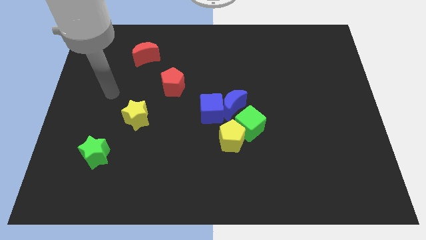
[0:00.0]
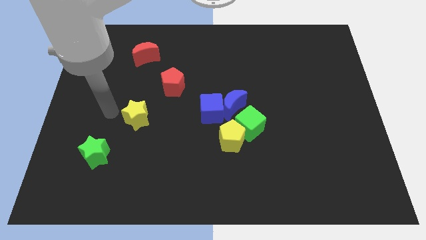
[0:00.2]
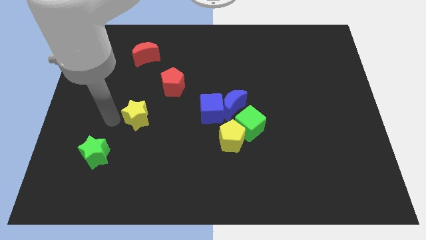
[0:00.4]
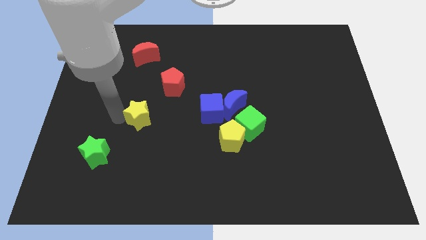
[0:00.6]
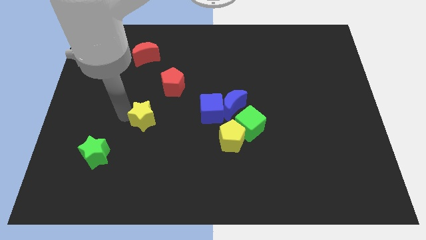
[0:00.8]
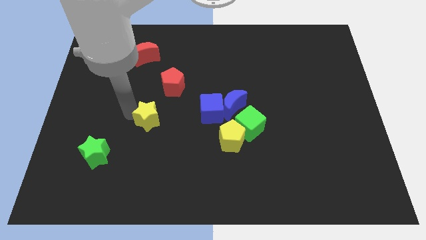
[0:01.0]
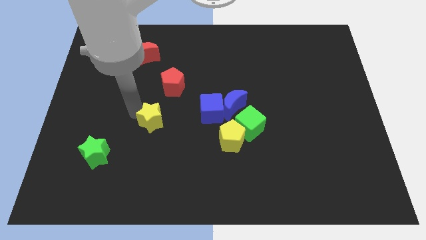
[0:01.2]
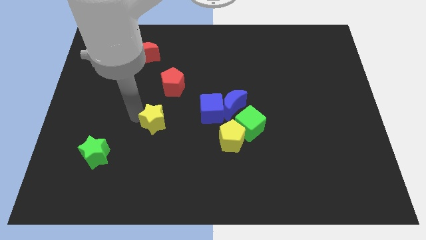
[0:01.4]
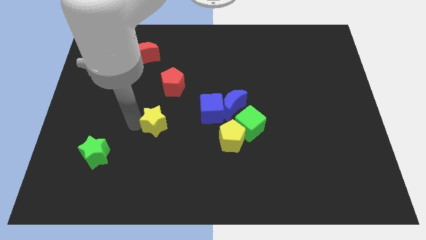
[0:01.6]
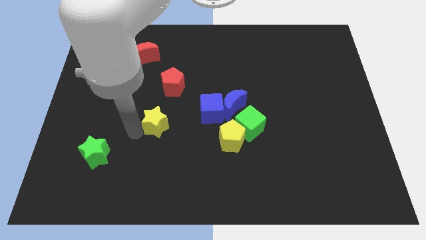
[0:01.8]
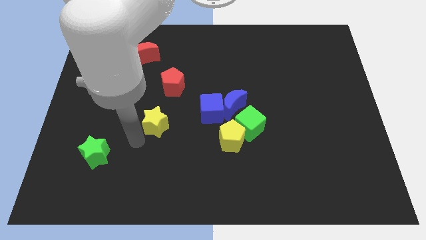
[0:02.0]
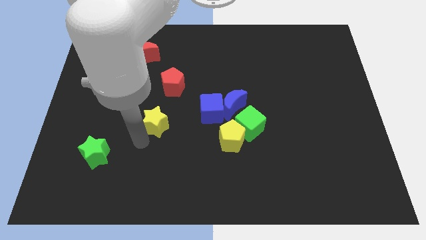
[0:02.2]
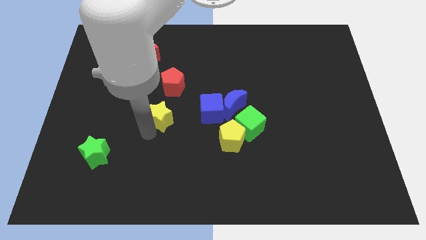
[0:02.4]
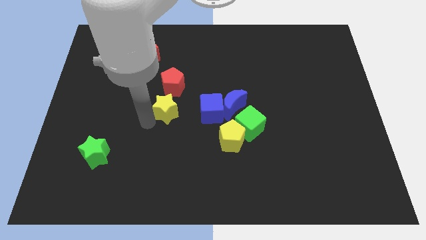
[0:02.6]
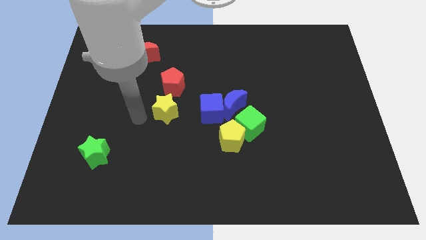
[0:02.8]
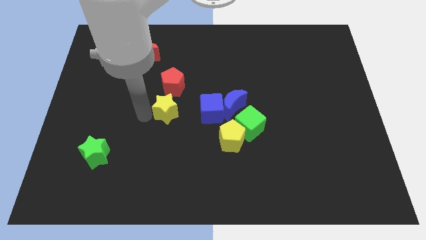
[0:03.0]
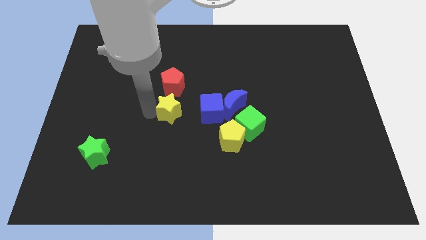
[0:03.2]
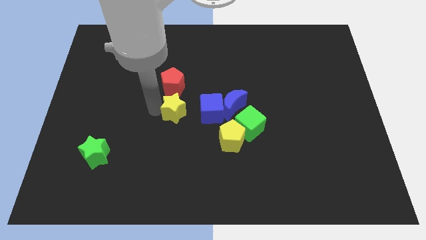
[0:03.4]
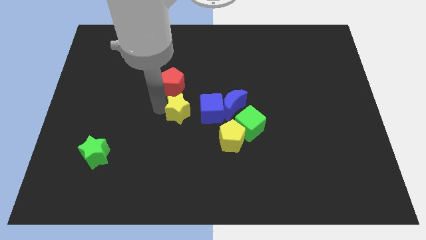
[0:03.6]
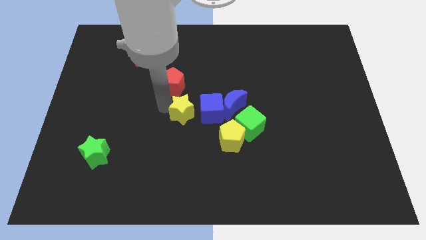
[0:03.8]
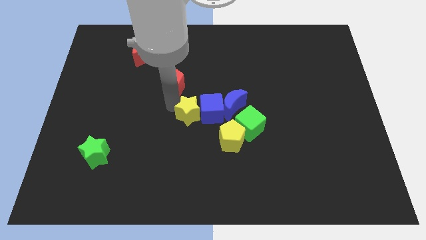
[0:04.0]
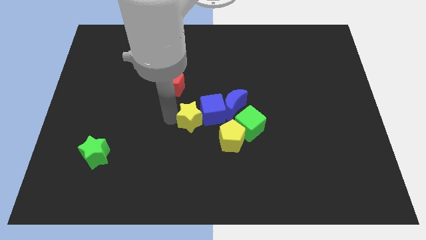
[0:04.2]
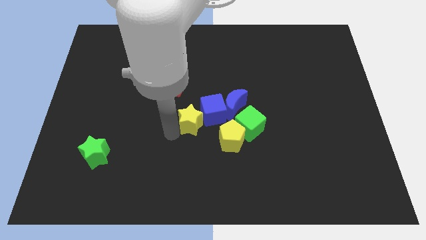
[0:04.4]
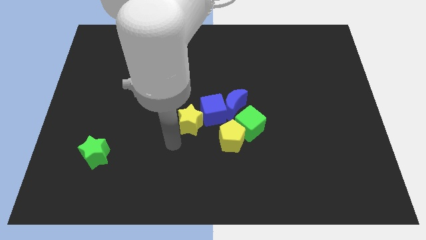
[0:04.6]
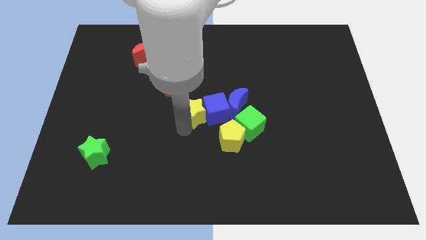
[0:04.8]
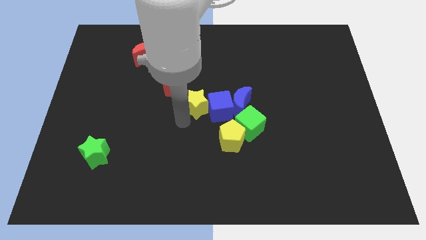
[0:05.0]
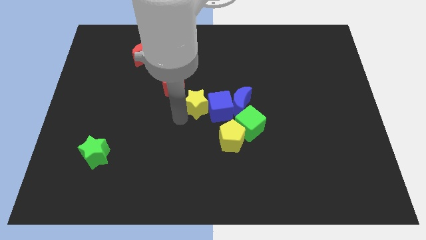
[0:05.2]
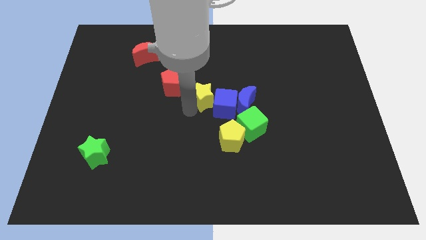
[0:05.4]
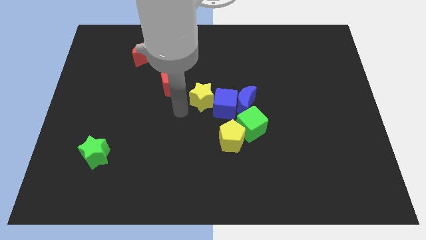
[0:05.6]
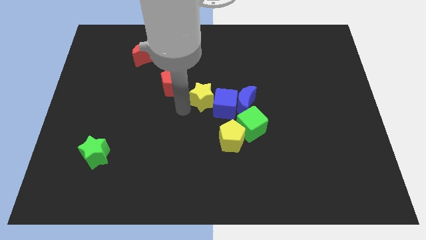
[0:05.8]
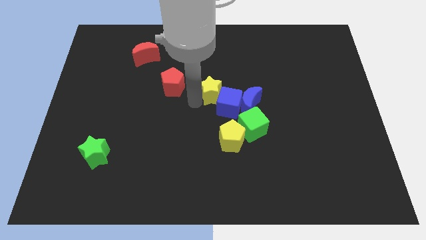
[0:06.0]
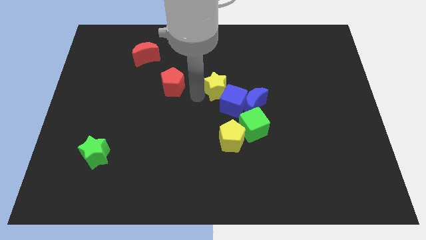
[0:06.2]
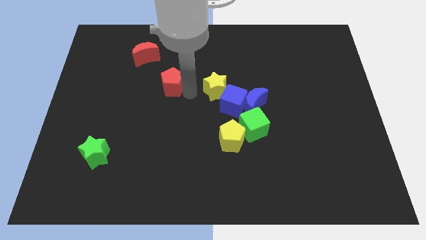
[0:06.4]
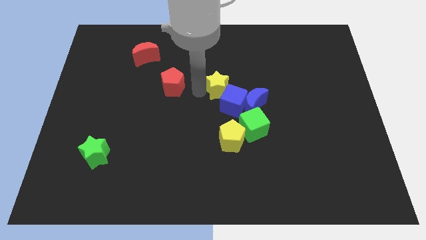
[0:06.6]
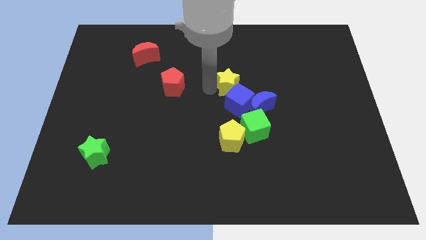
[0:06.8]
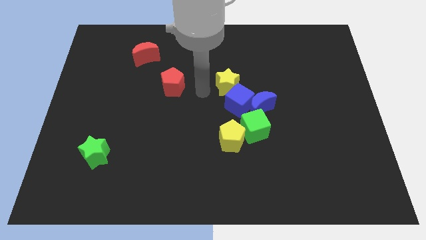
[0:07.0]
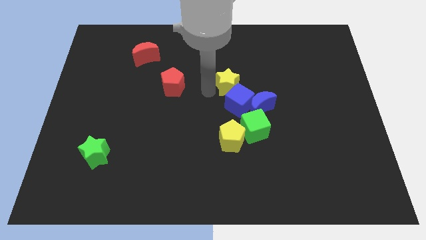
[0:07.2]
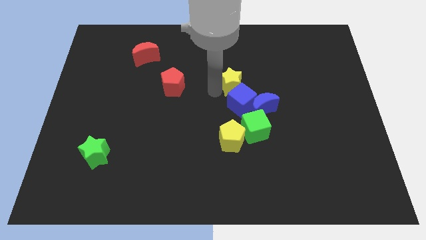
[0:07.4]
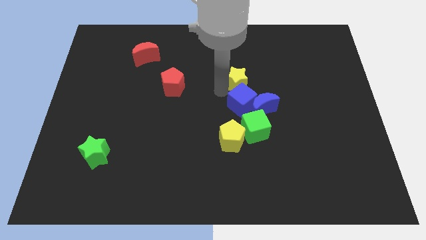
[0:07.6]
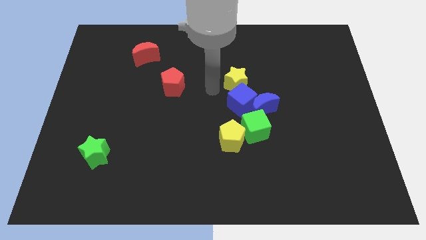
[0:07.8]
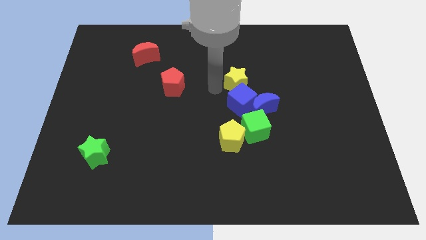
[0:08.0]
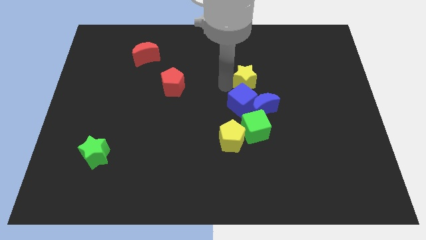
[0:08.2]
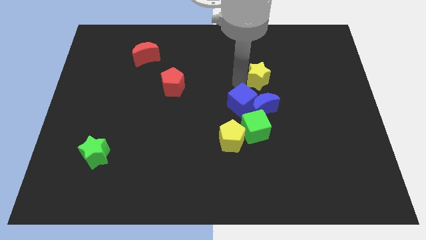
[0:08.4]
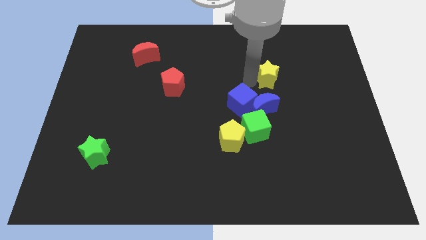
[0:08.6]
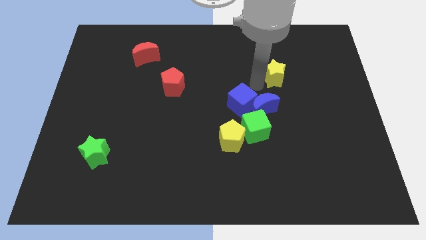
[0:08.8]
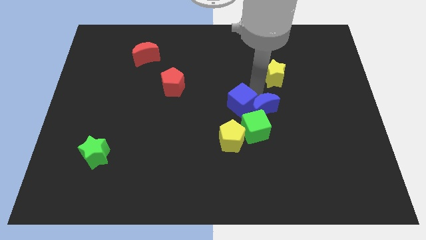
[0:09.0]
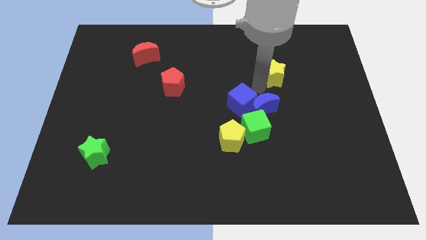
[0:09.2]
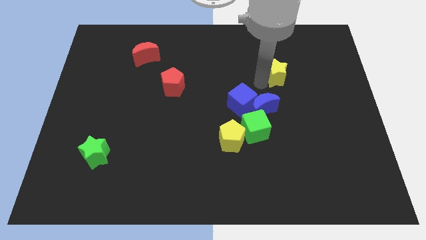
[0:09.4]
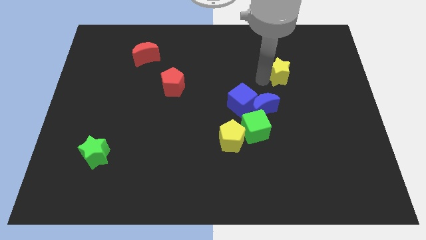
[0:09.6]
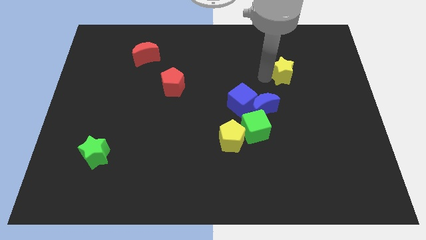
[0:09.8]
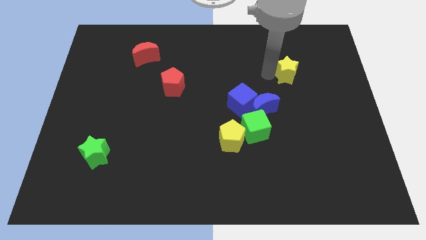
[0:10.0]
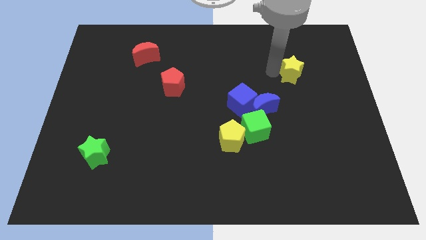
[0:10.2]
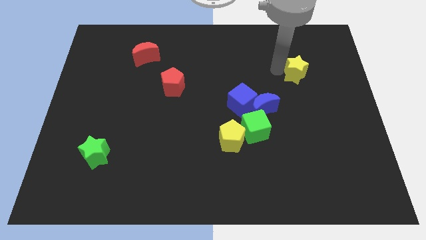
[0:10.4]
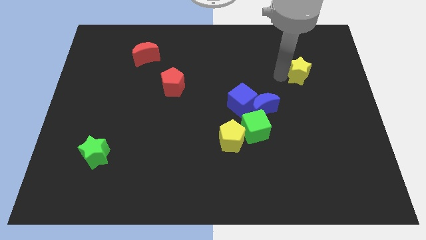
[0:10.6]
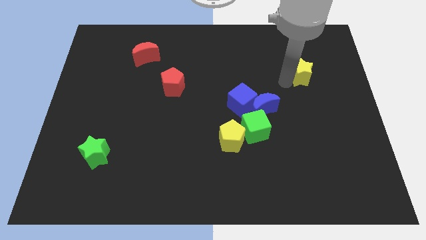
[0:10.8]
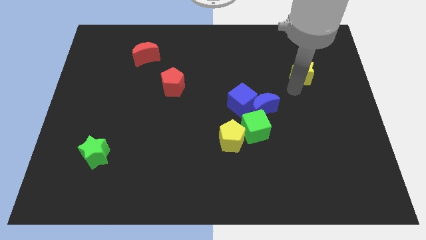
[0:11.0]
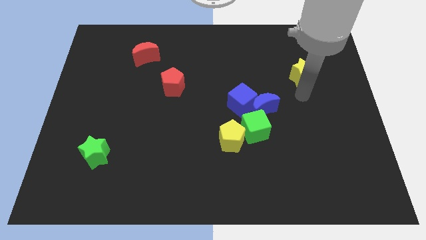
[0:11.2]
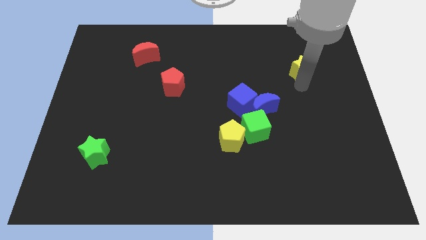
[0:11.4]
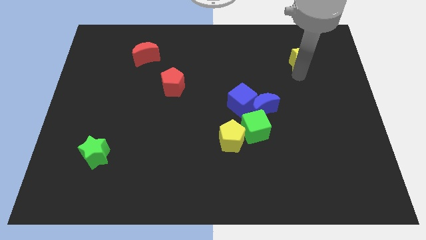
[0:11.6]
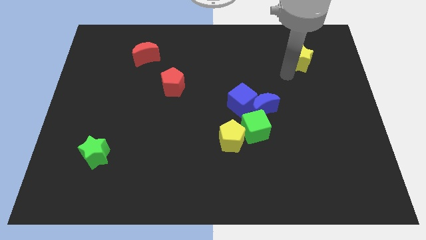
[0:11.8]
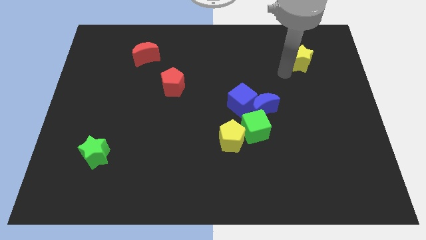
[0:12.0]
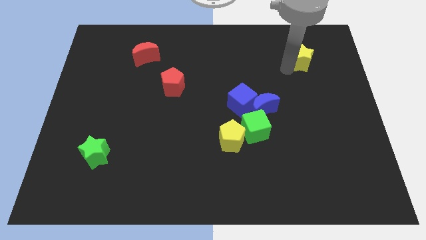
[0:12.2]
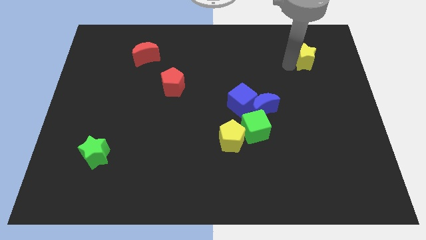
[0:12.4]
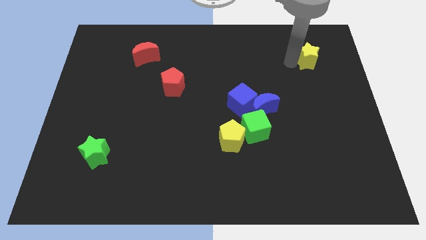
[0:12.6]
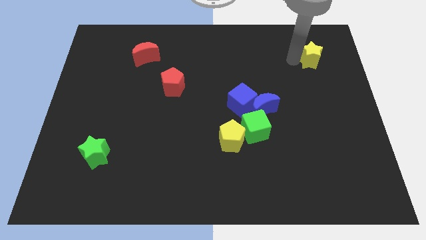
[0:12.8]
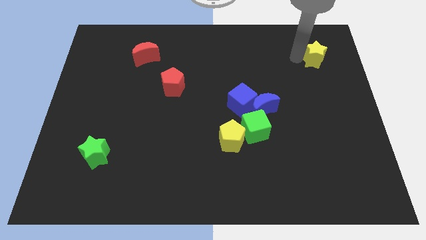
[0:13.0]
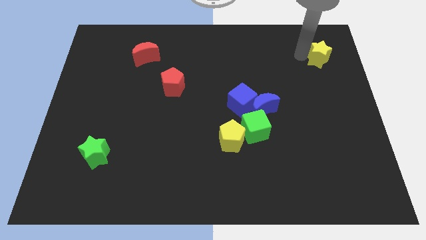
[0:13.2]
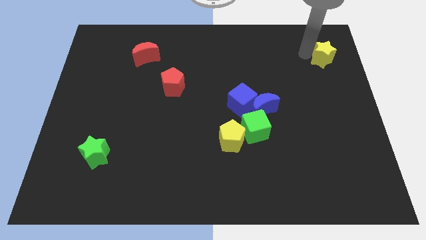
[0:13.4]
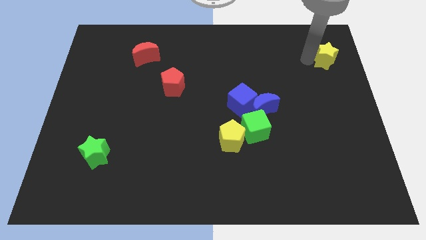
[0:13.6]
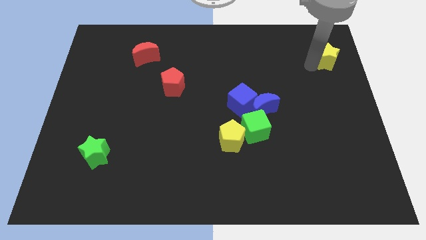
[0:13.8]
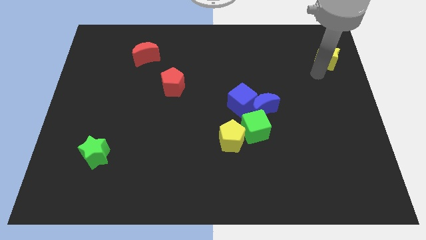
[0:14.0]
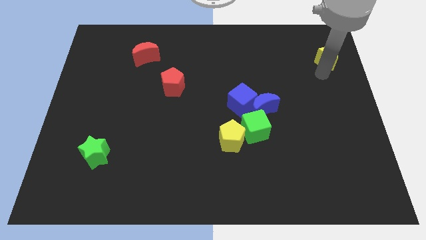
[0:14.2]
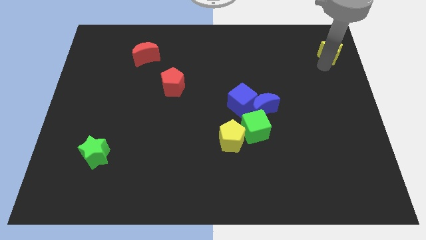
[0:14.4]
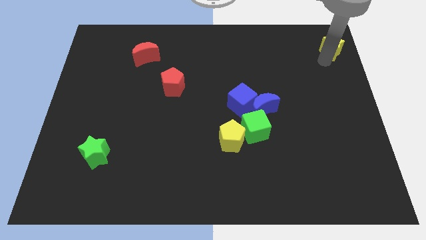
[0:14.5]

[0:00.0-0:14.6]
slide the yellow star to the top right of the board
